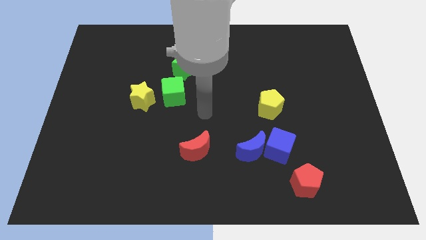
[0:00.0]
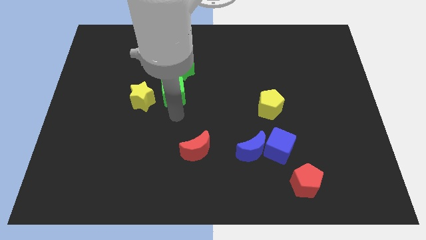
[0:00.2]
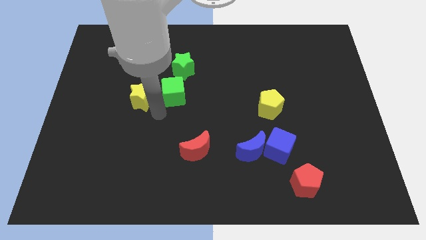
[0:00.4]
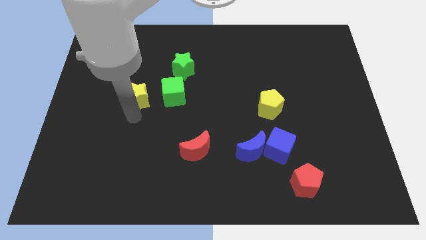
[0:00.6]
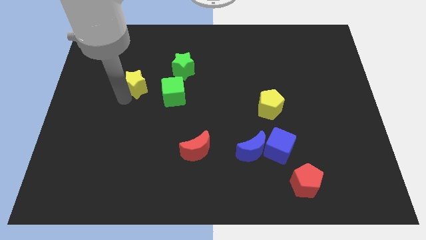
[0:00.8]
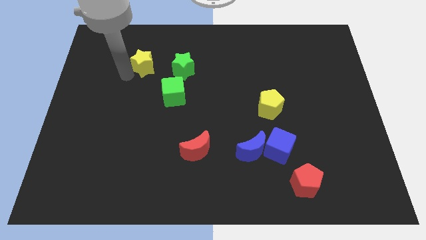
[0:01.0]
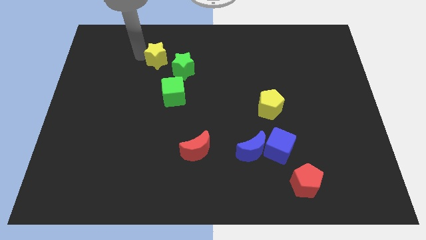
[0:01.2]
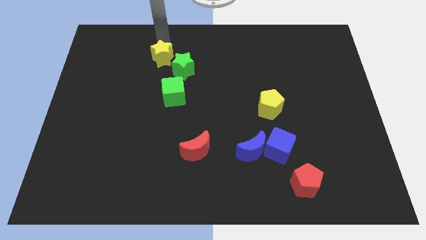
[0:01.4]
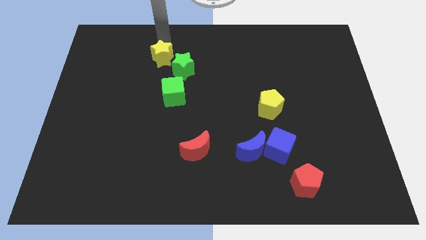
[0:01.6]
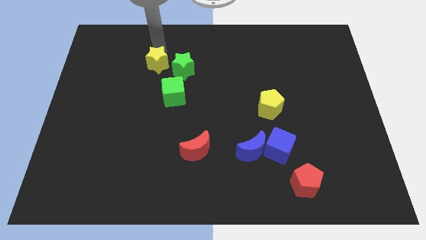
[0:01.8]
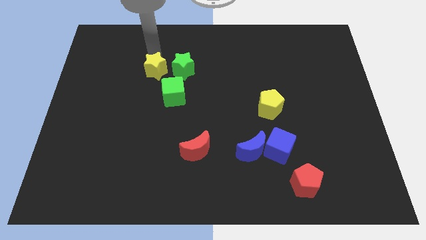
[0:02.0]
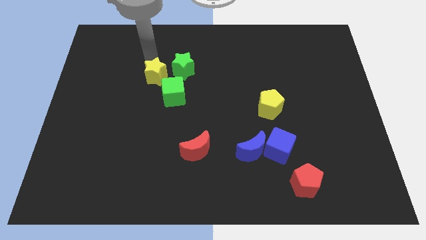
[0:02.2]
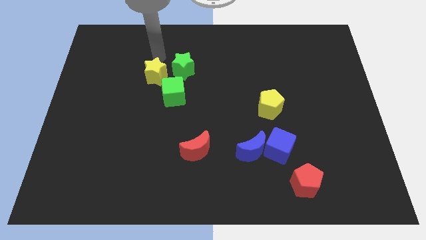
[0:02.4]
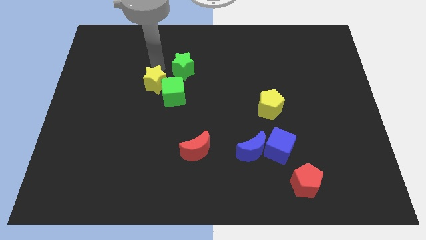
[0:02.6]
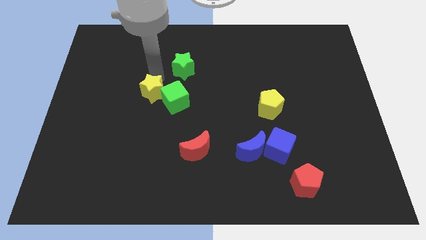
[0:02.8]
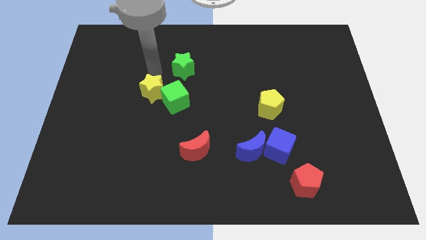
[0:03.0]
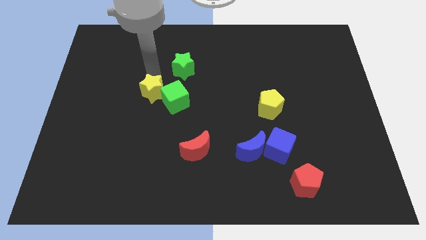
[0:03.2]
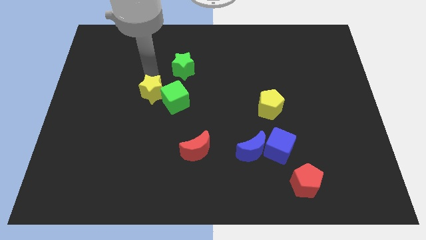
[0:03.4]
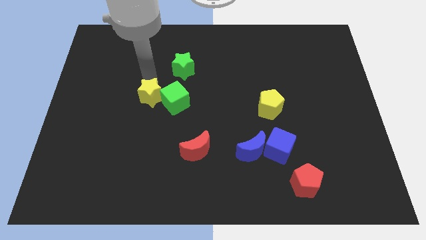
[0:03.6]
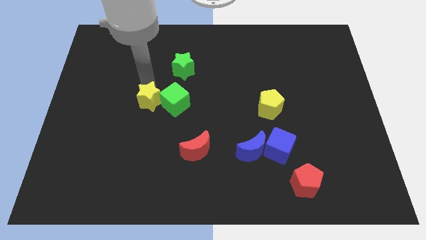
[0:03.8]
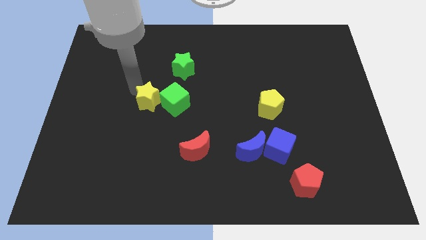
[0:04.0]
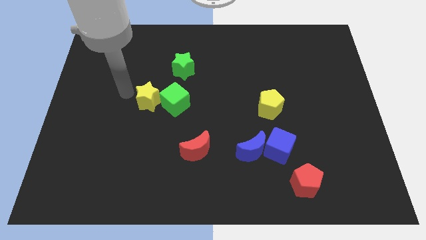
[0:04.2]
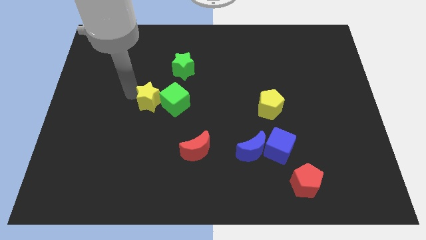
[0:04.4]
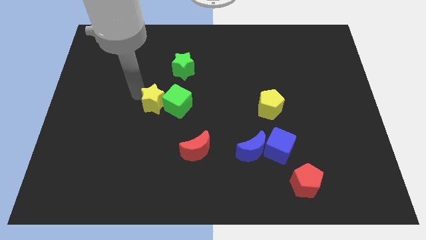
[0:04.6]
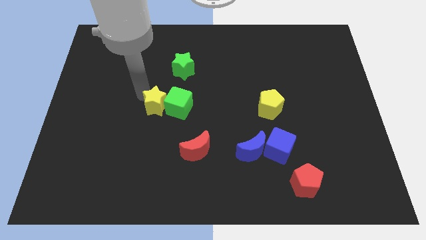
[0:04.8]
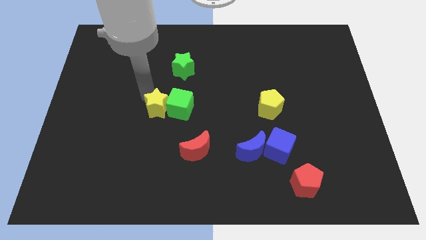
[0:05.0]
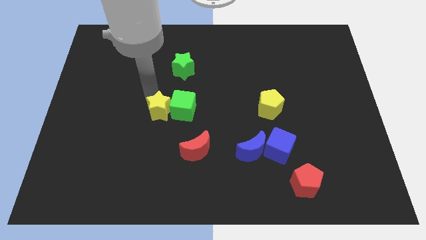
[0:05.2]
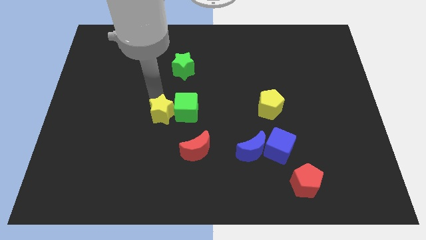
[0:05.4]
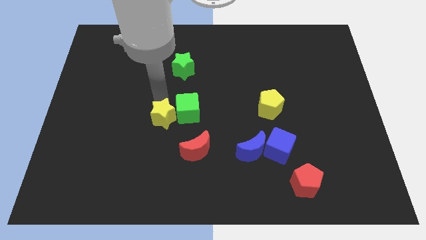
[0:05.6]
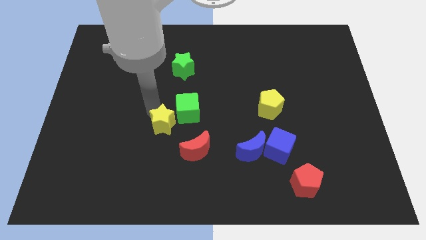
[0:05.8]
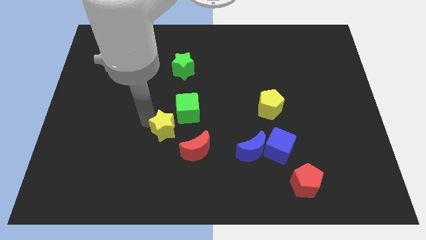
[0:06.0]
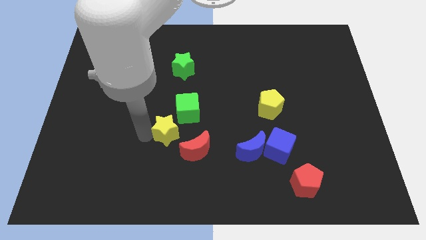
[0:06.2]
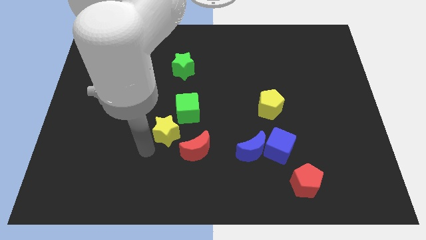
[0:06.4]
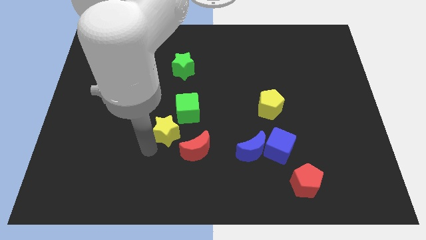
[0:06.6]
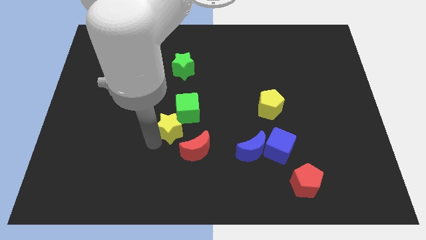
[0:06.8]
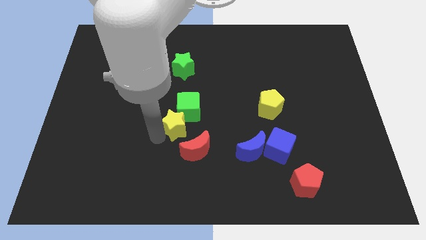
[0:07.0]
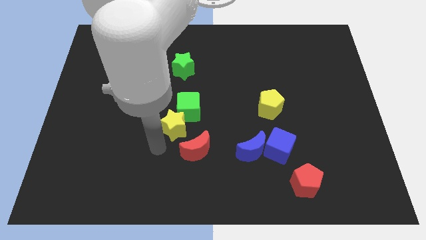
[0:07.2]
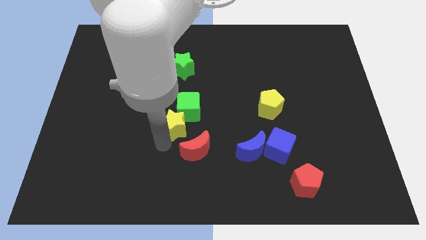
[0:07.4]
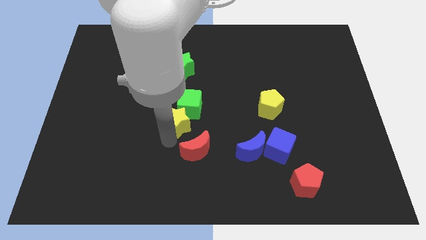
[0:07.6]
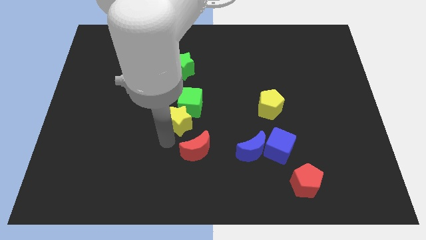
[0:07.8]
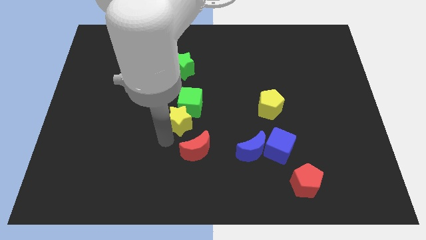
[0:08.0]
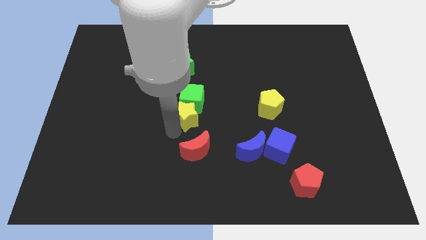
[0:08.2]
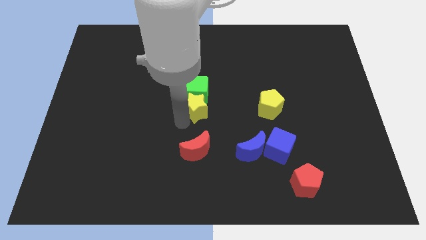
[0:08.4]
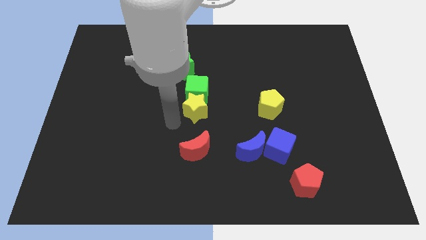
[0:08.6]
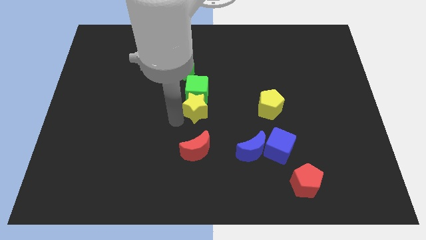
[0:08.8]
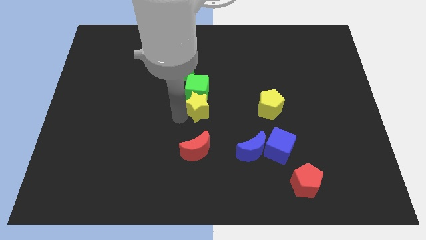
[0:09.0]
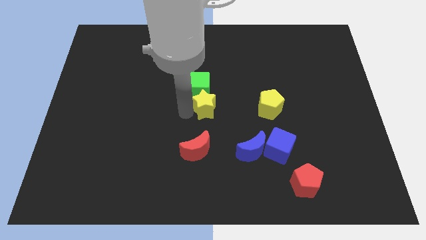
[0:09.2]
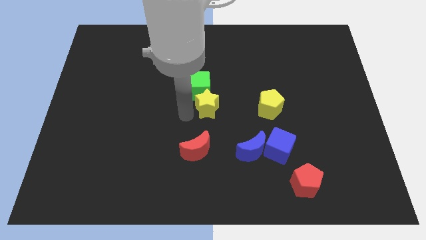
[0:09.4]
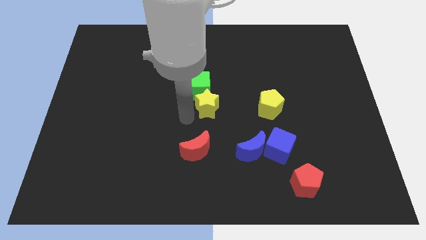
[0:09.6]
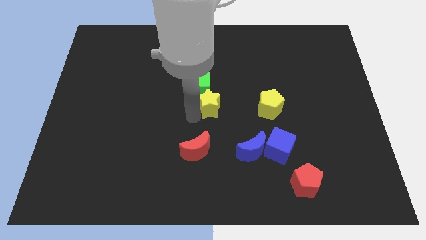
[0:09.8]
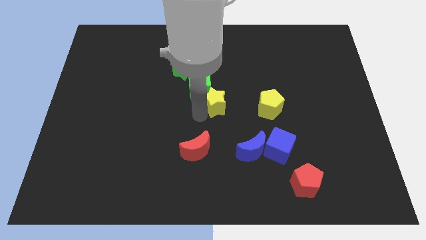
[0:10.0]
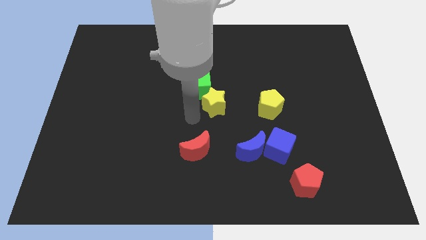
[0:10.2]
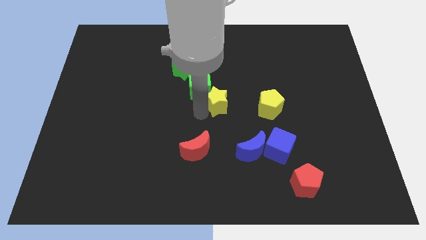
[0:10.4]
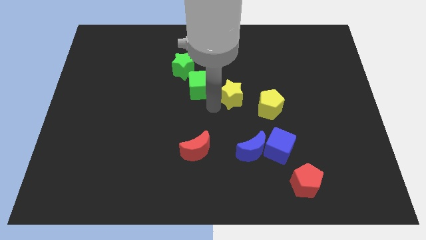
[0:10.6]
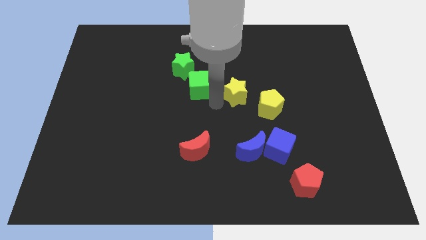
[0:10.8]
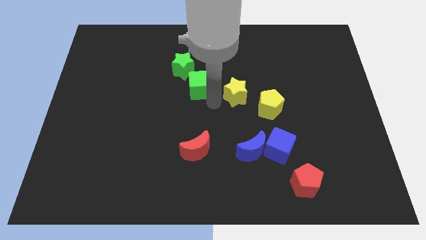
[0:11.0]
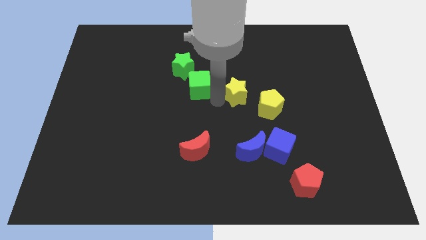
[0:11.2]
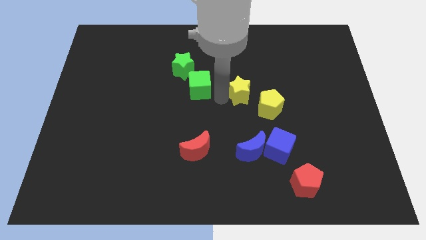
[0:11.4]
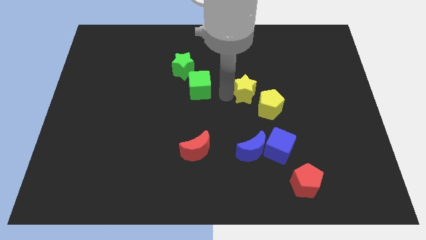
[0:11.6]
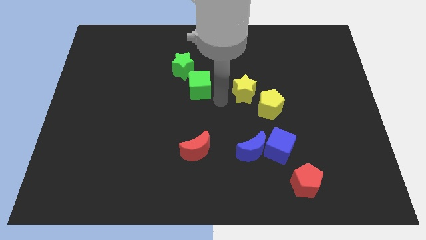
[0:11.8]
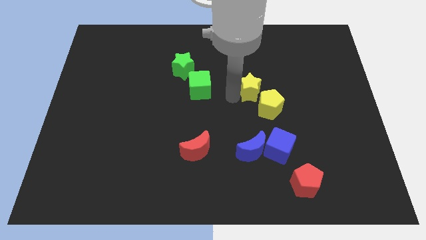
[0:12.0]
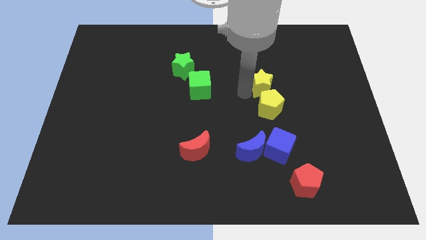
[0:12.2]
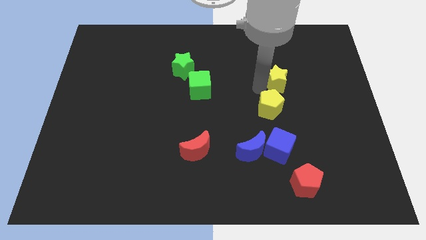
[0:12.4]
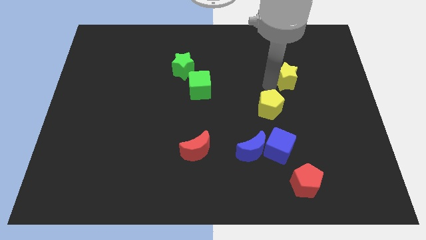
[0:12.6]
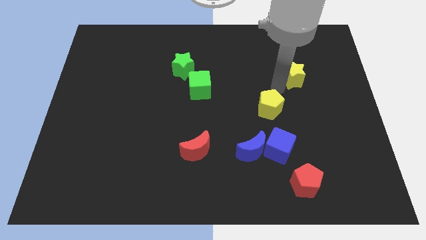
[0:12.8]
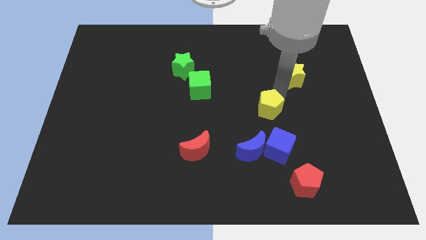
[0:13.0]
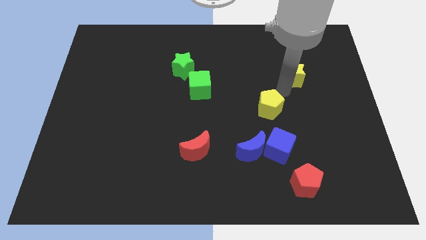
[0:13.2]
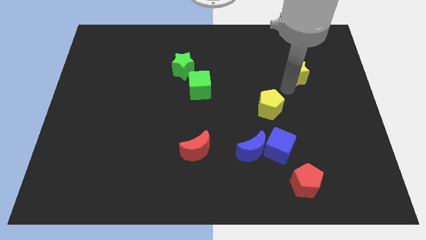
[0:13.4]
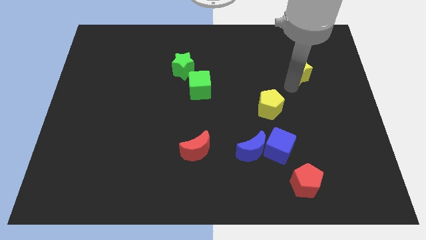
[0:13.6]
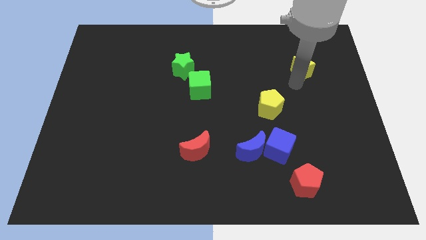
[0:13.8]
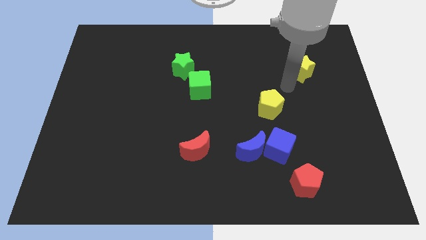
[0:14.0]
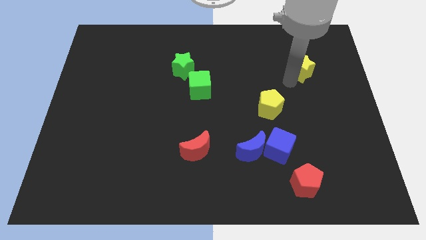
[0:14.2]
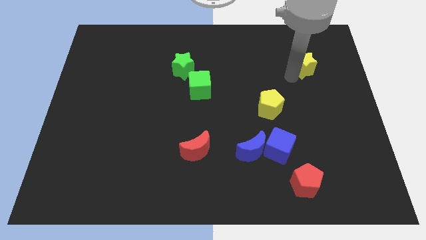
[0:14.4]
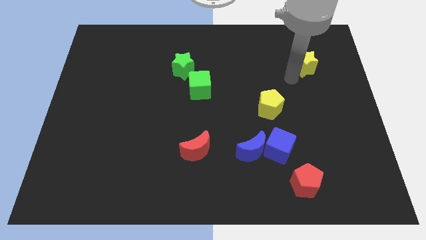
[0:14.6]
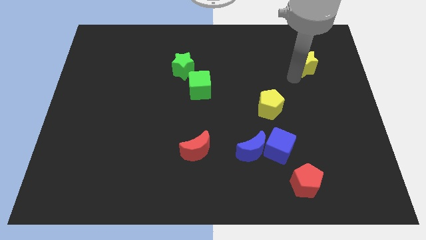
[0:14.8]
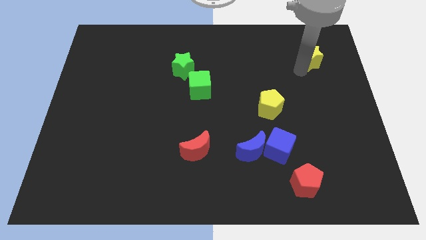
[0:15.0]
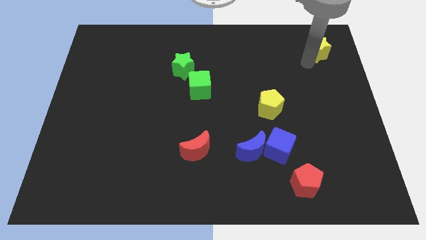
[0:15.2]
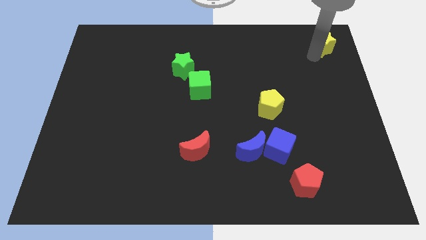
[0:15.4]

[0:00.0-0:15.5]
move the yellow star to the upper right corner
